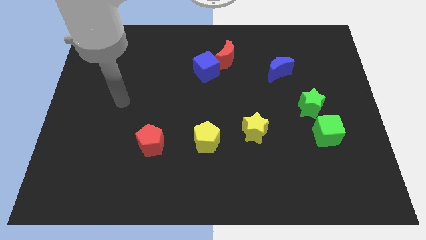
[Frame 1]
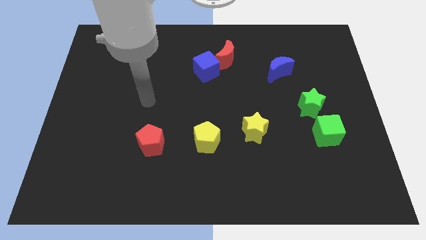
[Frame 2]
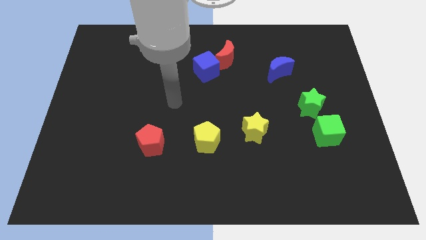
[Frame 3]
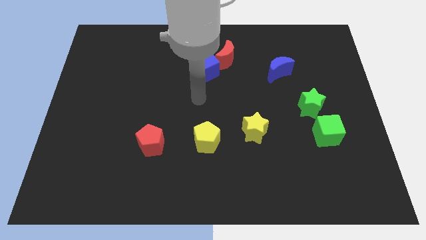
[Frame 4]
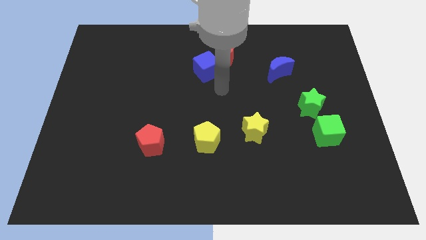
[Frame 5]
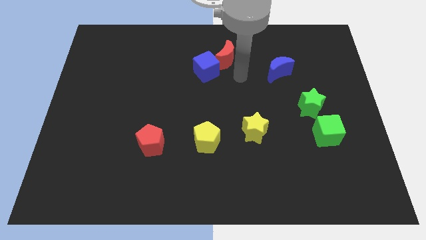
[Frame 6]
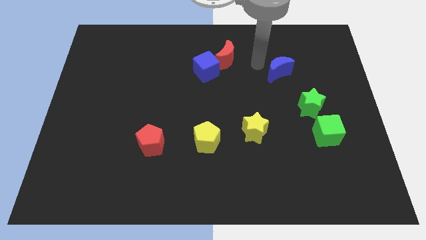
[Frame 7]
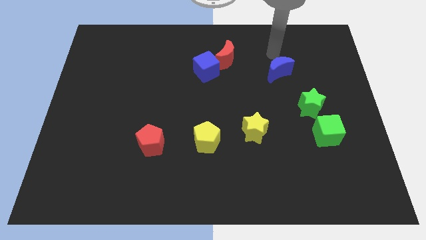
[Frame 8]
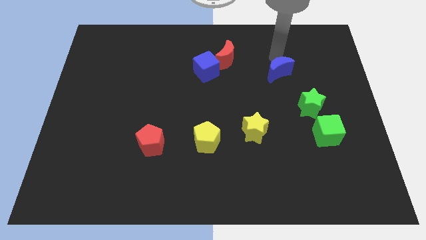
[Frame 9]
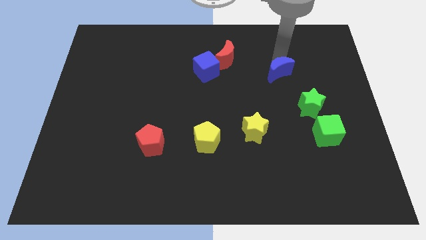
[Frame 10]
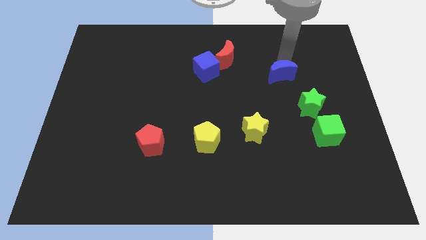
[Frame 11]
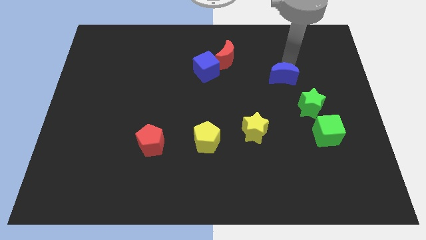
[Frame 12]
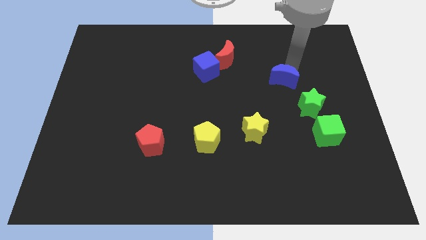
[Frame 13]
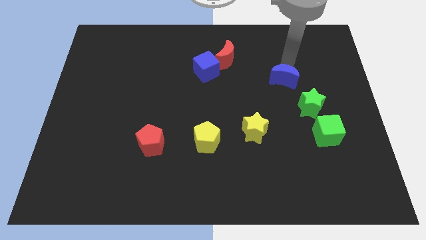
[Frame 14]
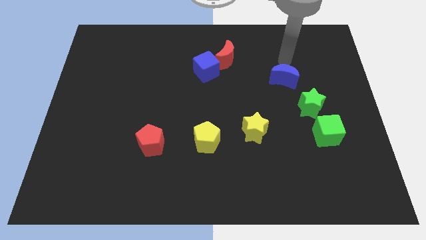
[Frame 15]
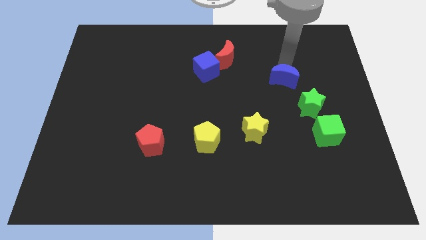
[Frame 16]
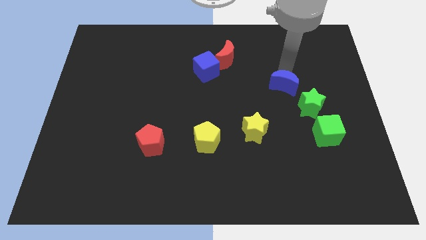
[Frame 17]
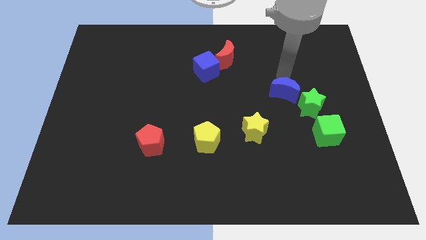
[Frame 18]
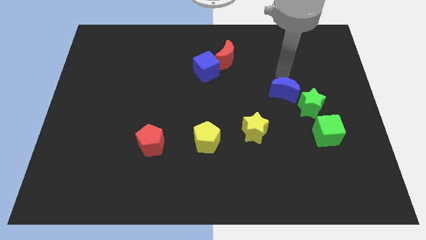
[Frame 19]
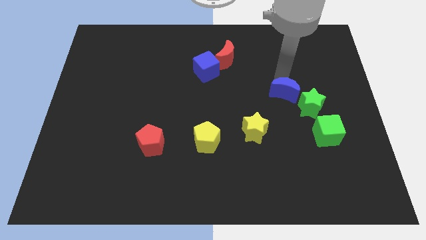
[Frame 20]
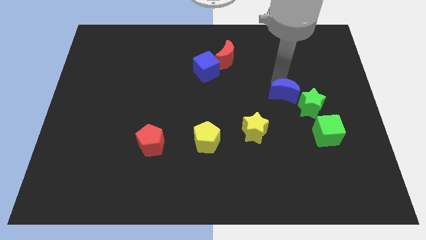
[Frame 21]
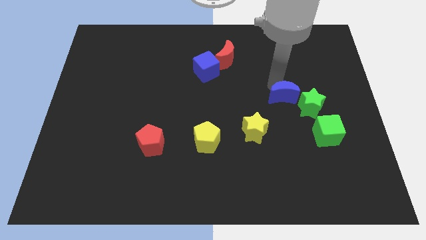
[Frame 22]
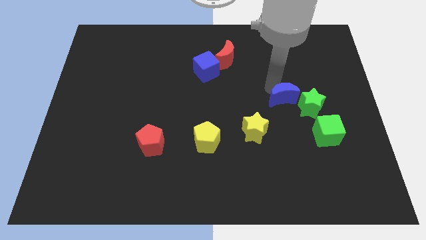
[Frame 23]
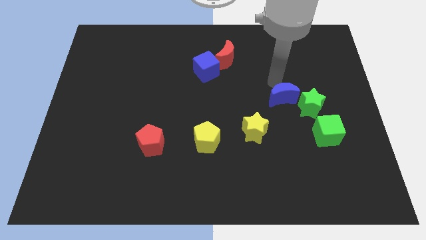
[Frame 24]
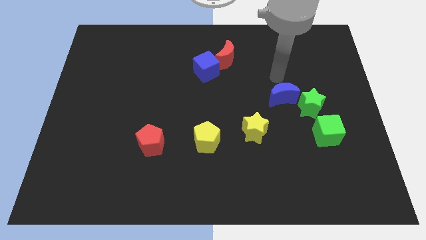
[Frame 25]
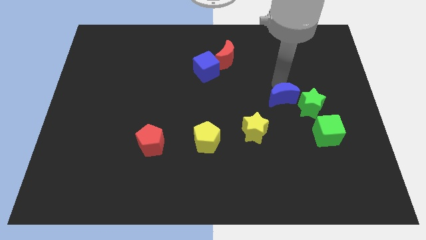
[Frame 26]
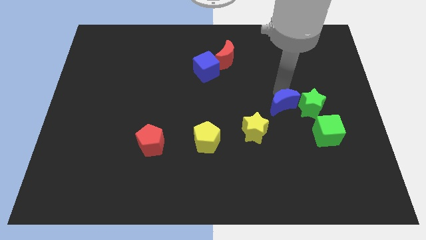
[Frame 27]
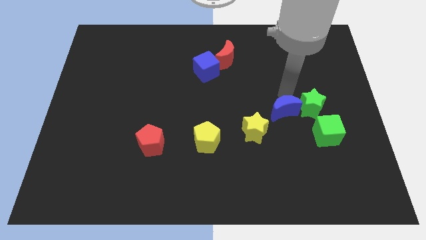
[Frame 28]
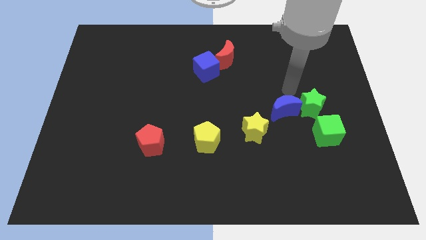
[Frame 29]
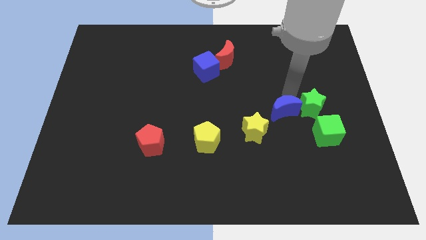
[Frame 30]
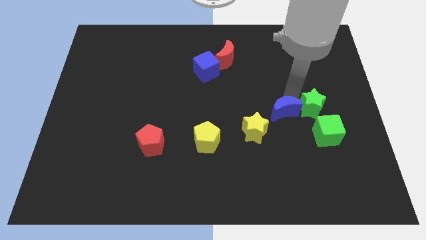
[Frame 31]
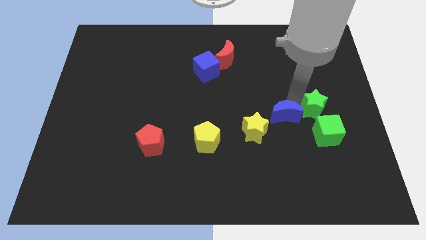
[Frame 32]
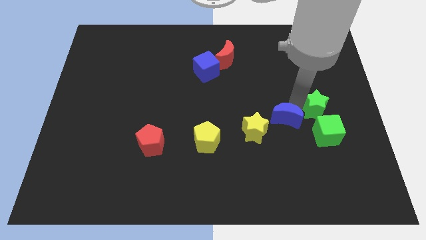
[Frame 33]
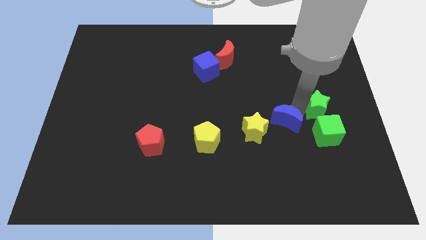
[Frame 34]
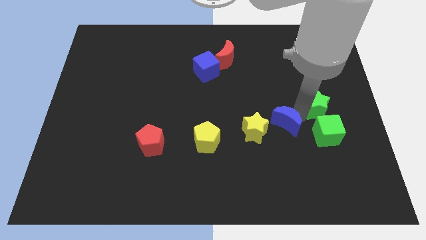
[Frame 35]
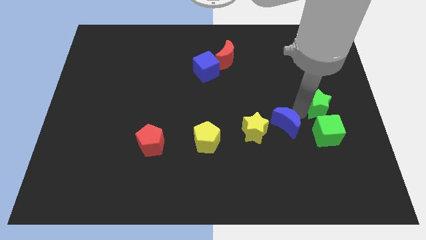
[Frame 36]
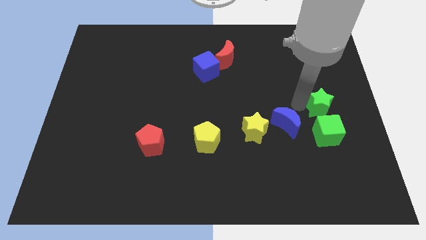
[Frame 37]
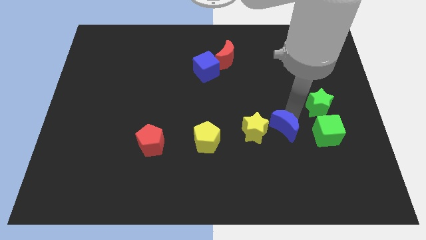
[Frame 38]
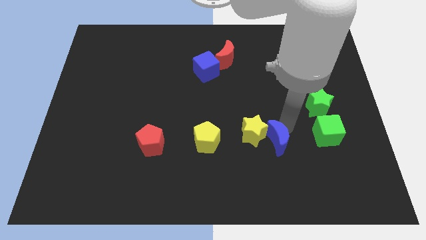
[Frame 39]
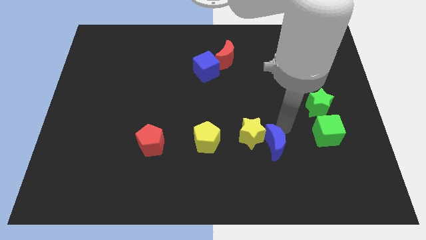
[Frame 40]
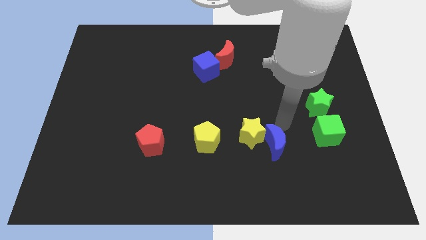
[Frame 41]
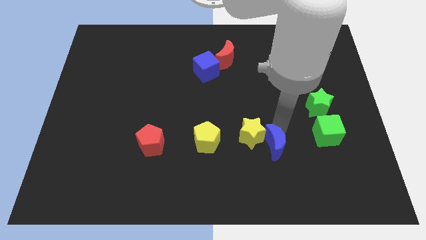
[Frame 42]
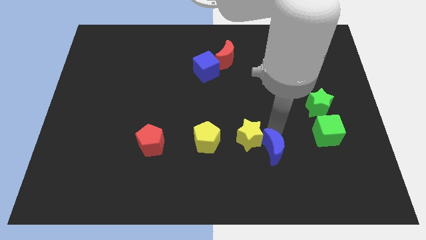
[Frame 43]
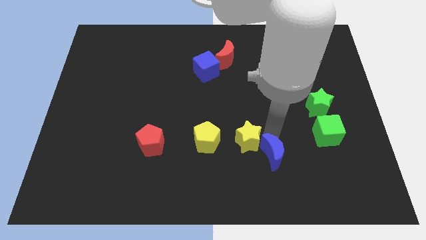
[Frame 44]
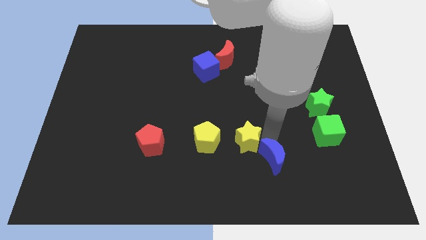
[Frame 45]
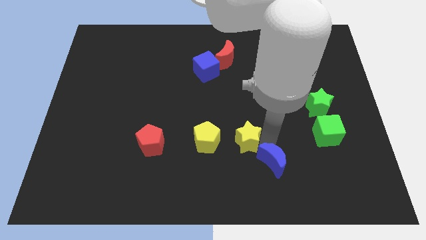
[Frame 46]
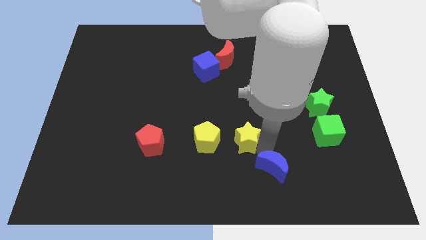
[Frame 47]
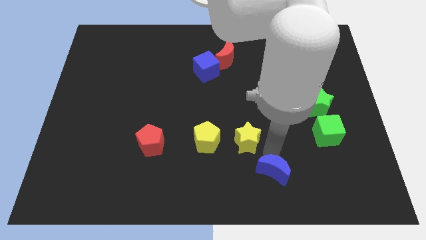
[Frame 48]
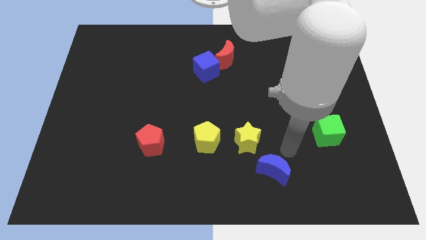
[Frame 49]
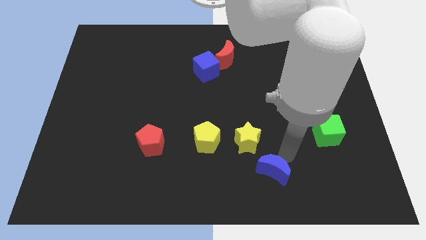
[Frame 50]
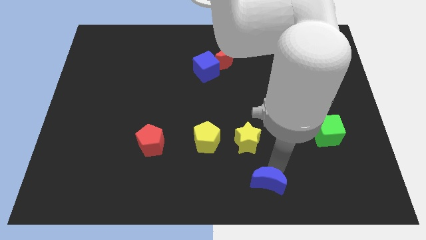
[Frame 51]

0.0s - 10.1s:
slide the blue moon to the bottom

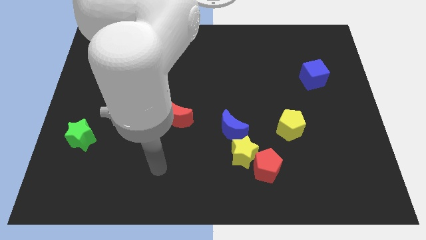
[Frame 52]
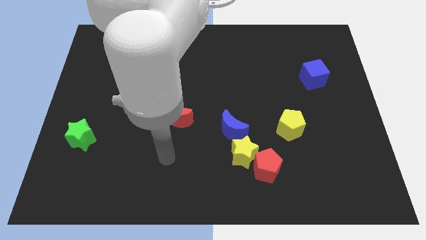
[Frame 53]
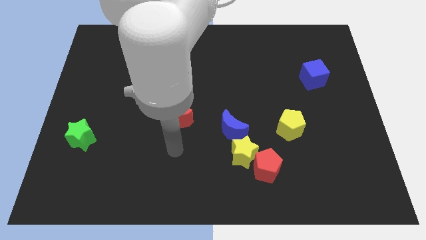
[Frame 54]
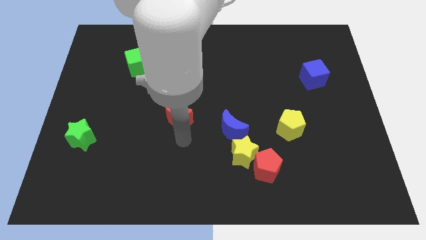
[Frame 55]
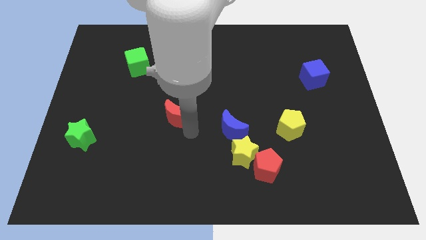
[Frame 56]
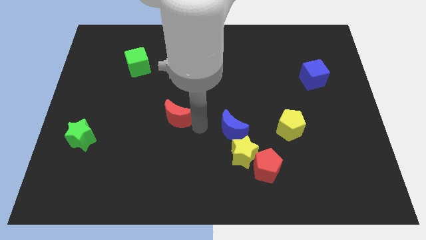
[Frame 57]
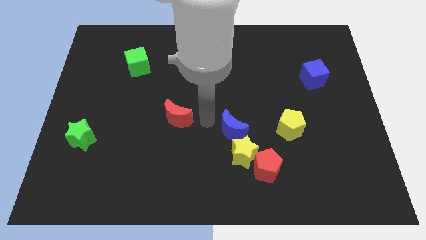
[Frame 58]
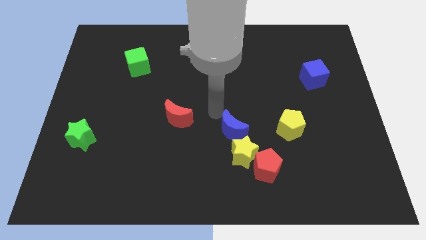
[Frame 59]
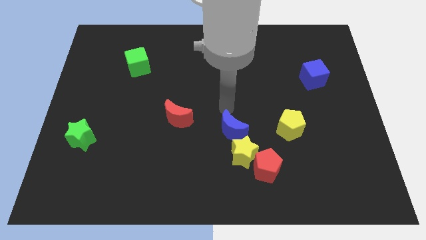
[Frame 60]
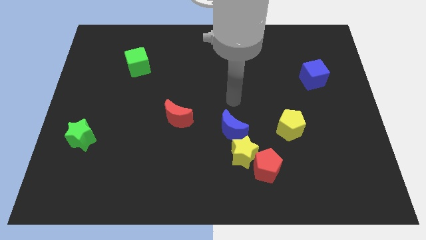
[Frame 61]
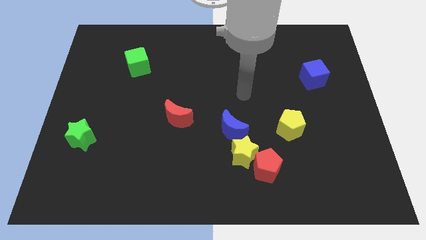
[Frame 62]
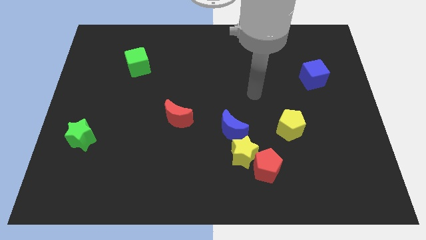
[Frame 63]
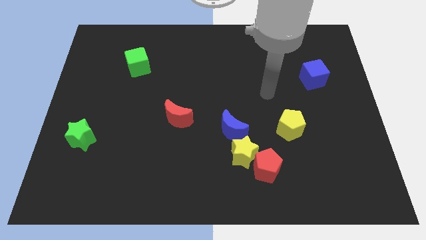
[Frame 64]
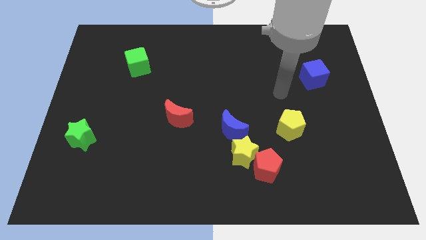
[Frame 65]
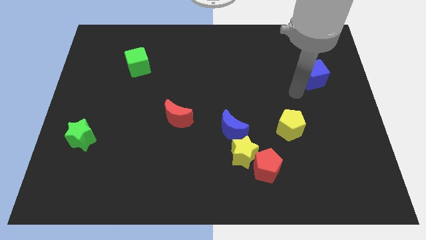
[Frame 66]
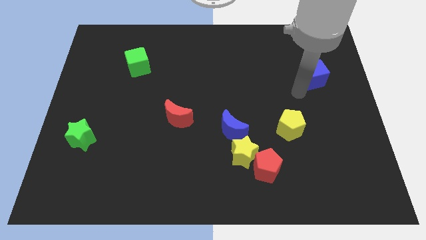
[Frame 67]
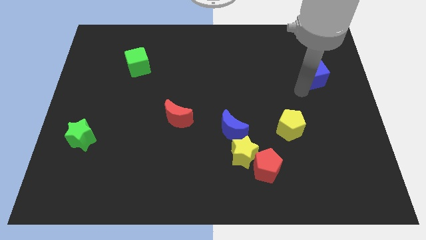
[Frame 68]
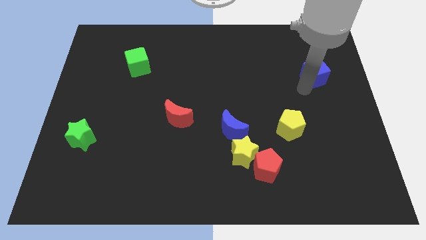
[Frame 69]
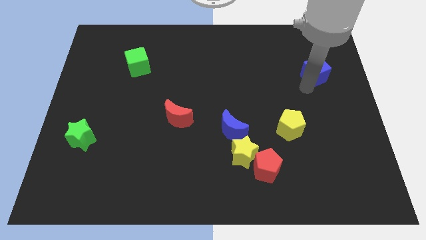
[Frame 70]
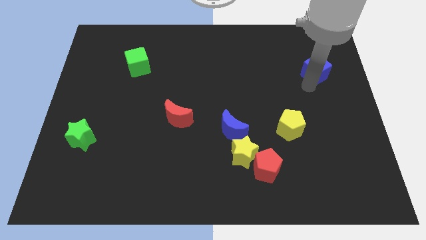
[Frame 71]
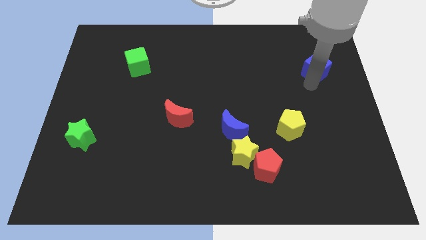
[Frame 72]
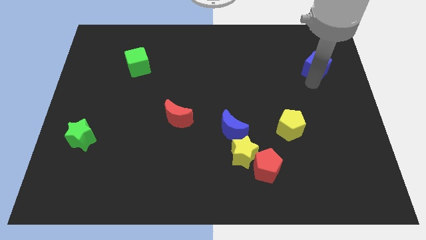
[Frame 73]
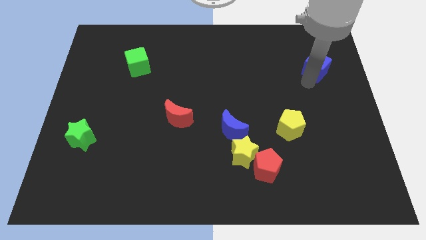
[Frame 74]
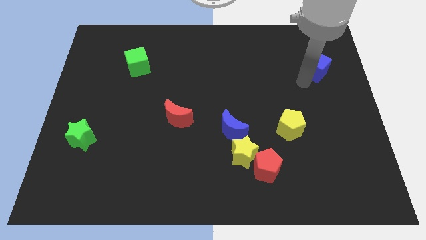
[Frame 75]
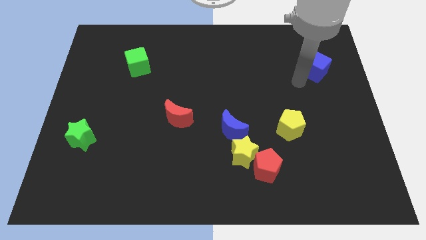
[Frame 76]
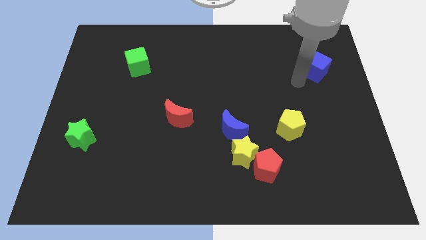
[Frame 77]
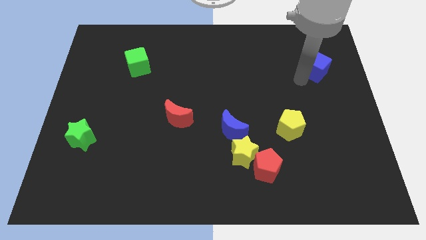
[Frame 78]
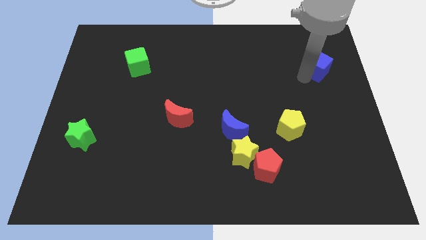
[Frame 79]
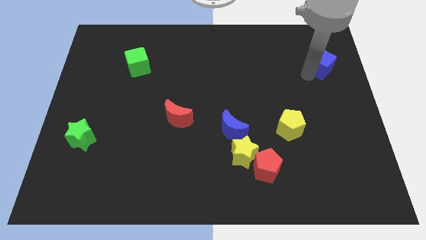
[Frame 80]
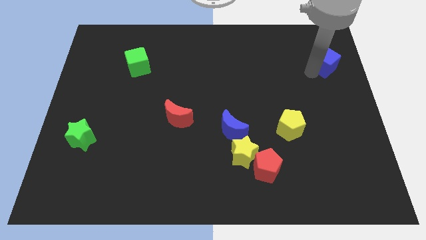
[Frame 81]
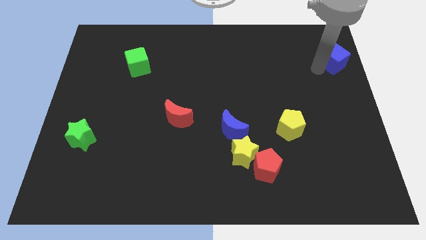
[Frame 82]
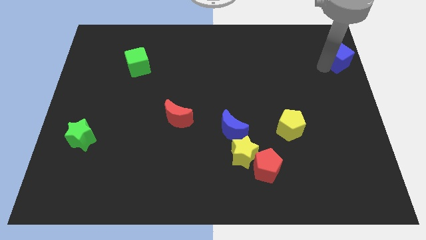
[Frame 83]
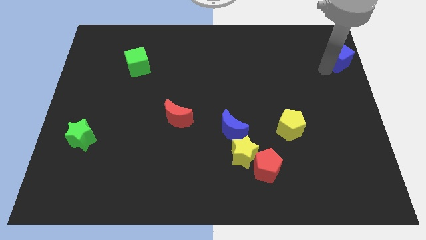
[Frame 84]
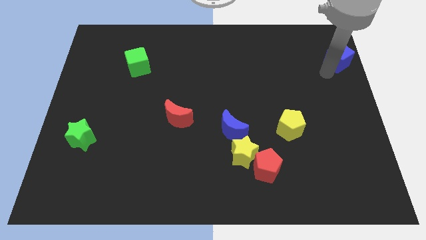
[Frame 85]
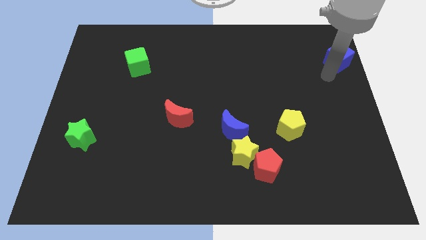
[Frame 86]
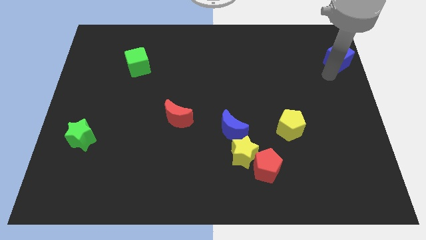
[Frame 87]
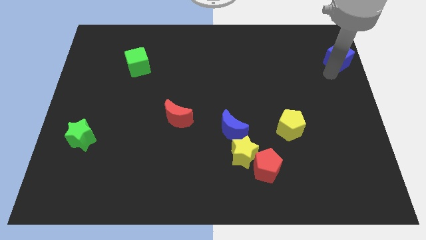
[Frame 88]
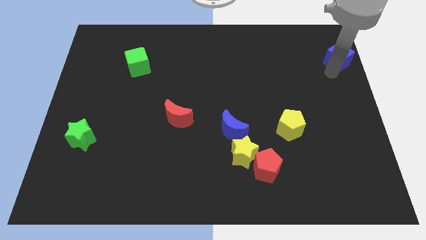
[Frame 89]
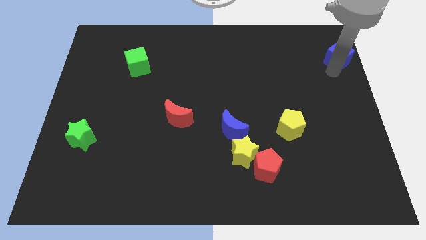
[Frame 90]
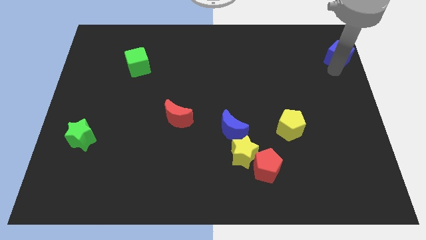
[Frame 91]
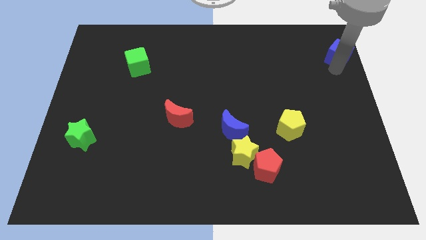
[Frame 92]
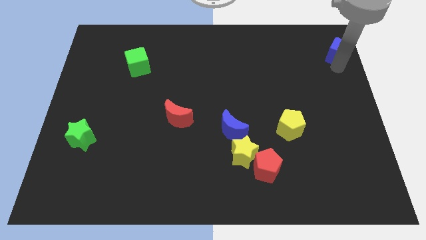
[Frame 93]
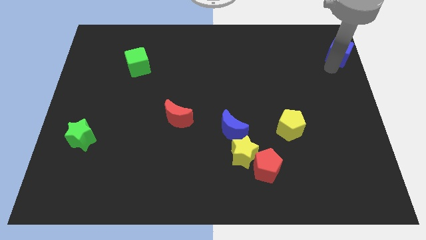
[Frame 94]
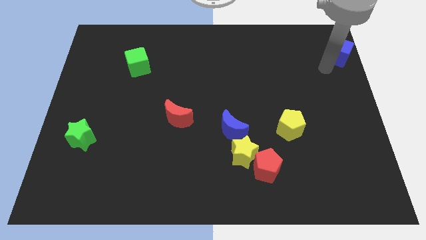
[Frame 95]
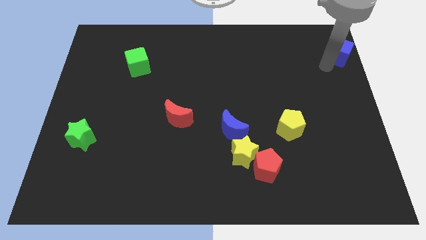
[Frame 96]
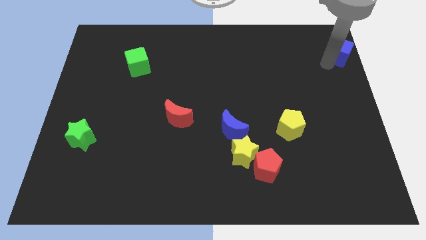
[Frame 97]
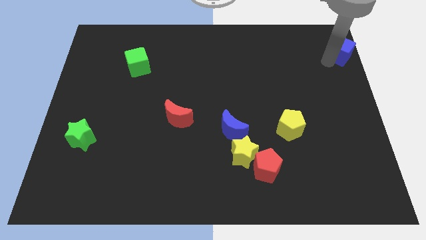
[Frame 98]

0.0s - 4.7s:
slide the blue cube to the upper right corner
